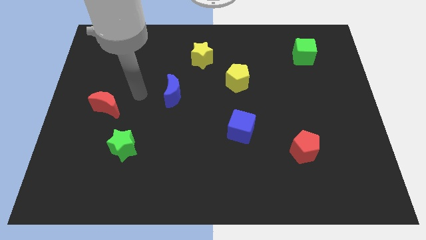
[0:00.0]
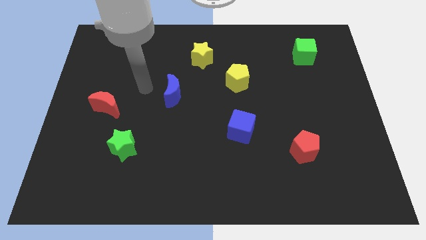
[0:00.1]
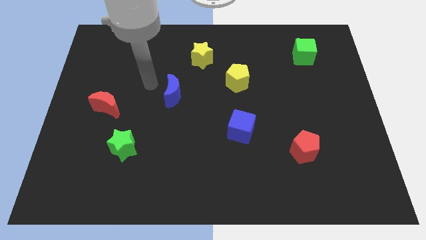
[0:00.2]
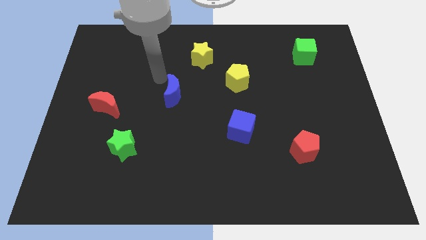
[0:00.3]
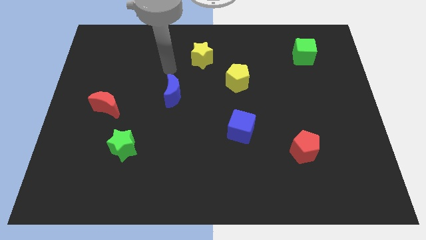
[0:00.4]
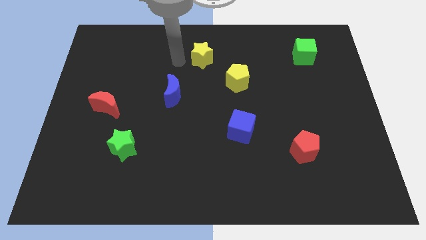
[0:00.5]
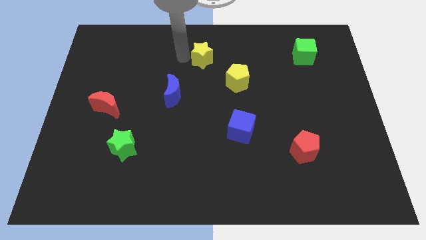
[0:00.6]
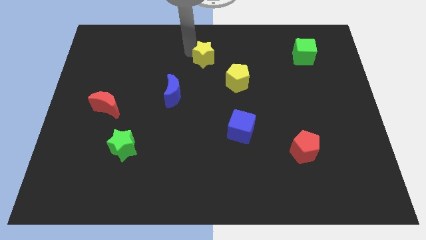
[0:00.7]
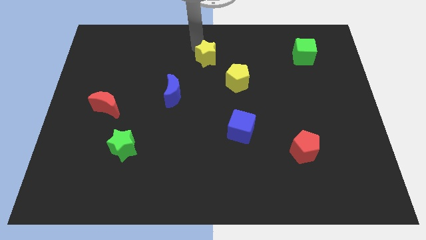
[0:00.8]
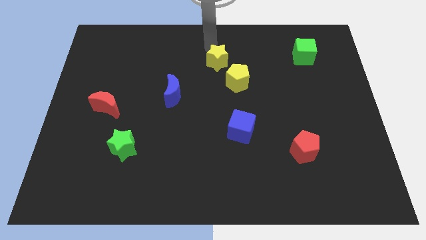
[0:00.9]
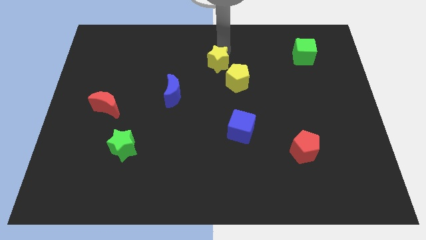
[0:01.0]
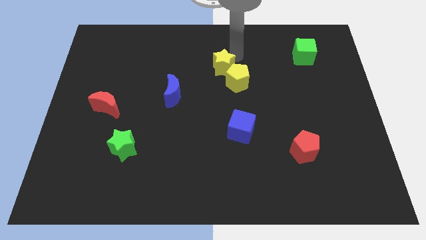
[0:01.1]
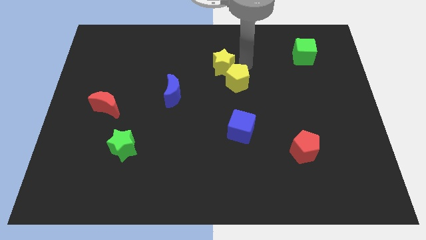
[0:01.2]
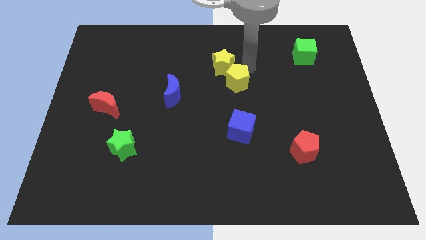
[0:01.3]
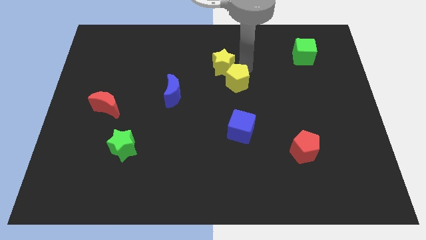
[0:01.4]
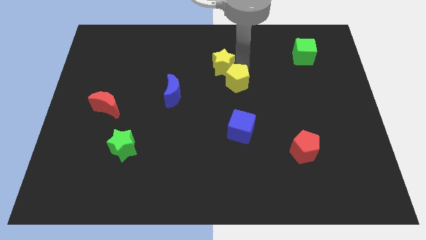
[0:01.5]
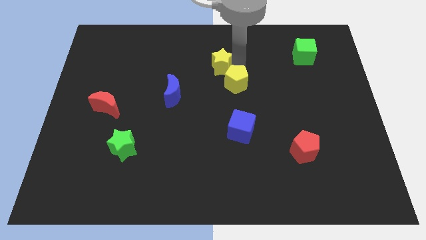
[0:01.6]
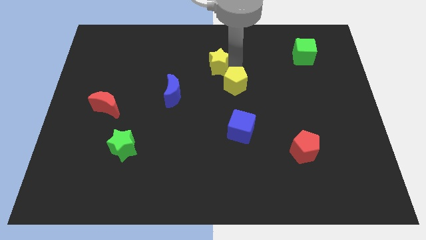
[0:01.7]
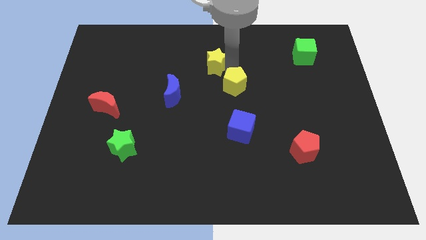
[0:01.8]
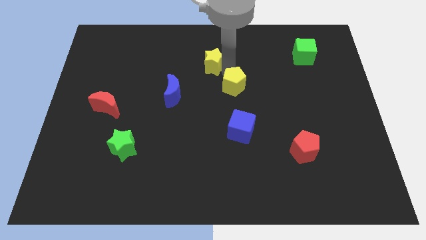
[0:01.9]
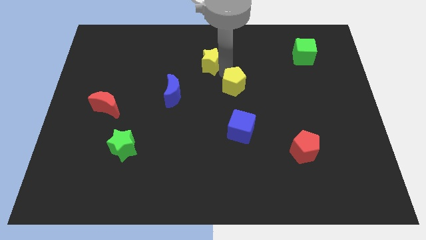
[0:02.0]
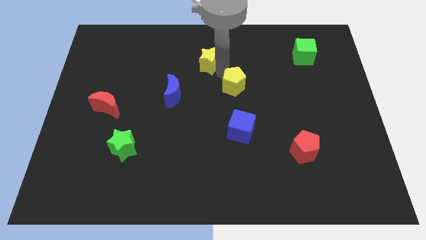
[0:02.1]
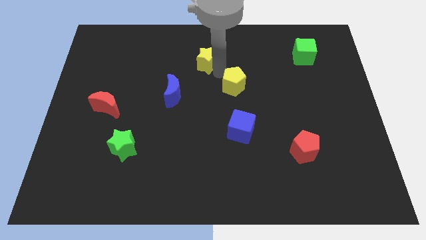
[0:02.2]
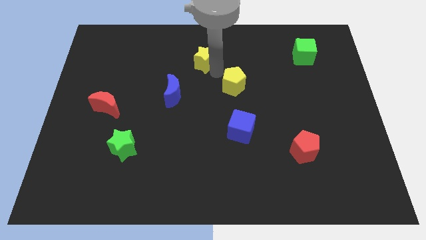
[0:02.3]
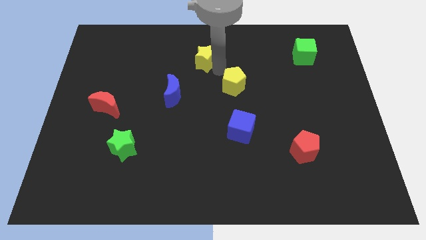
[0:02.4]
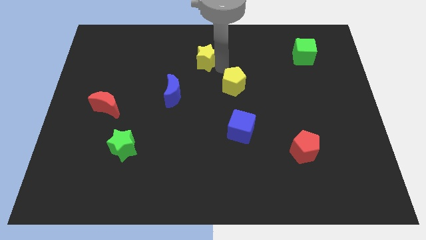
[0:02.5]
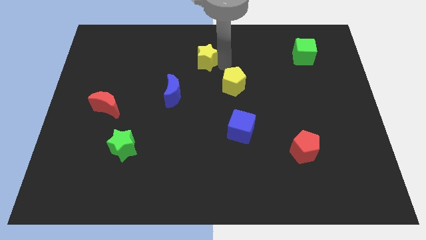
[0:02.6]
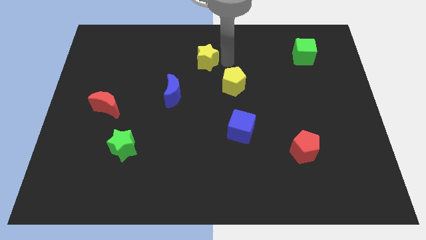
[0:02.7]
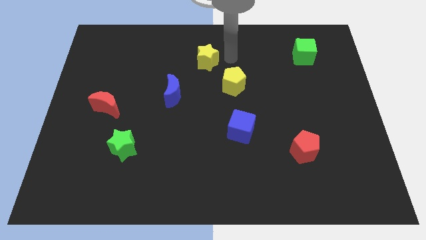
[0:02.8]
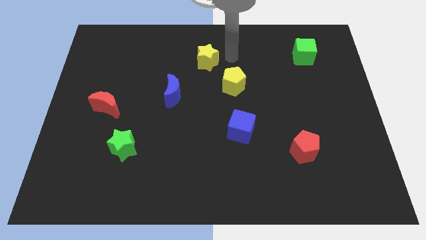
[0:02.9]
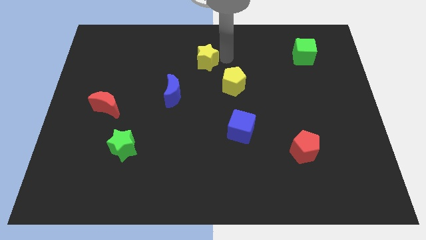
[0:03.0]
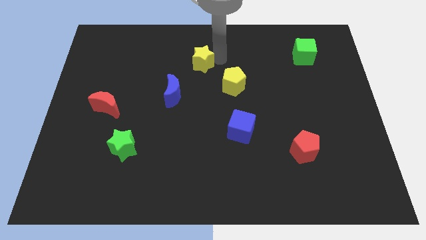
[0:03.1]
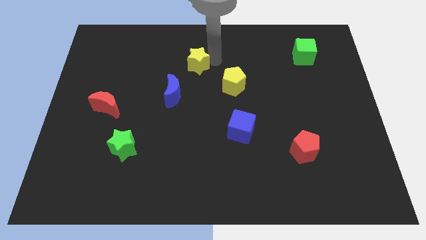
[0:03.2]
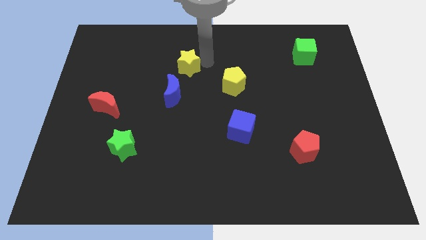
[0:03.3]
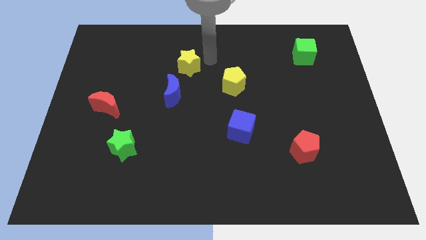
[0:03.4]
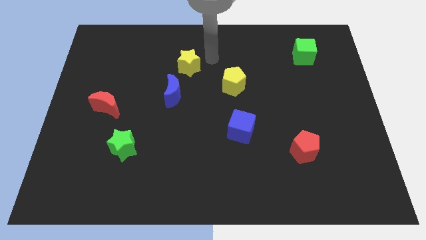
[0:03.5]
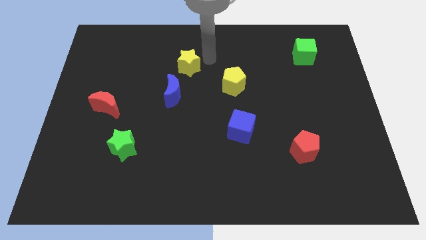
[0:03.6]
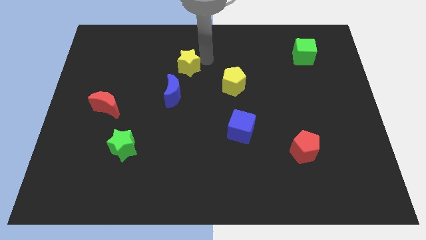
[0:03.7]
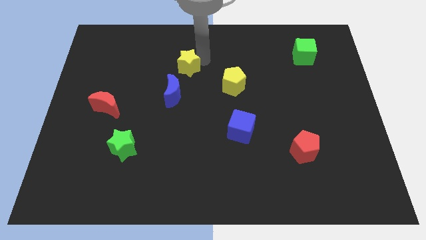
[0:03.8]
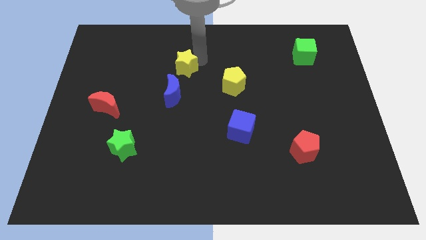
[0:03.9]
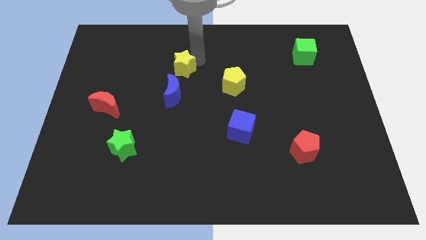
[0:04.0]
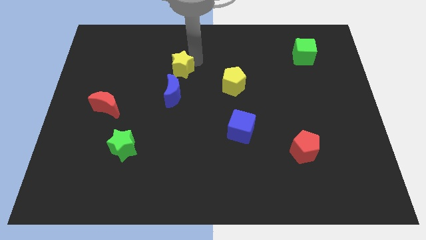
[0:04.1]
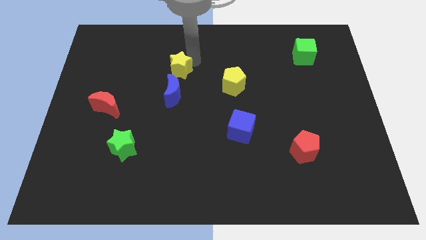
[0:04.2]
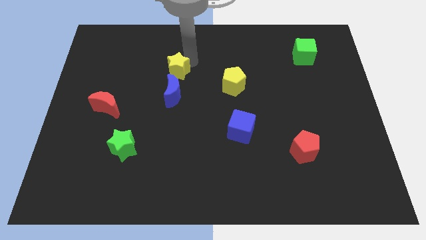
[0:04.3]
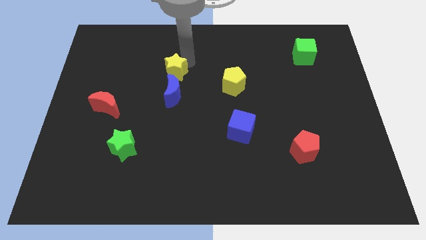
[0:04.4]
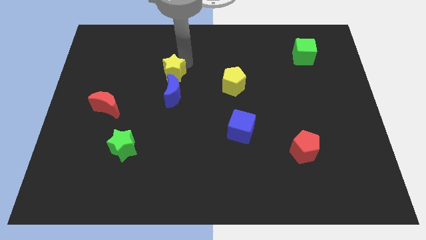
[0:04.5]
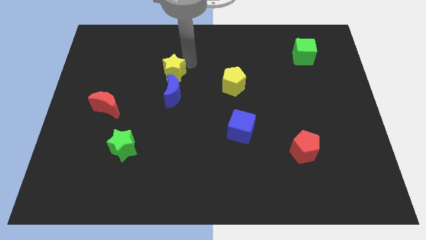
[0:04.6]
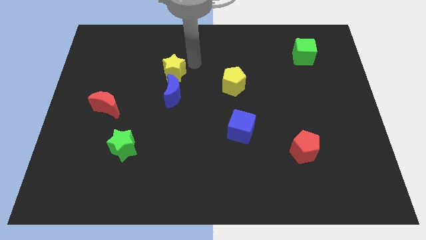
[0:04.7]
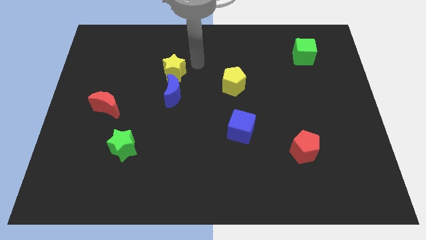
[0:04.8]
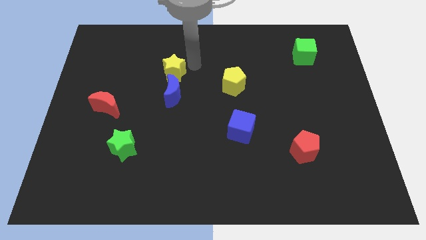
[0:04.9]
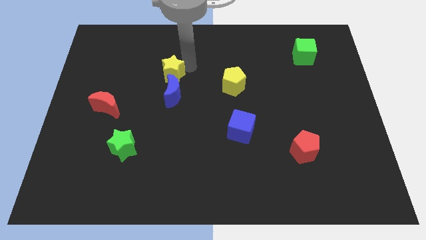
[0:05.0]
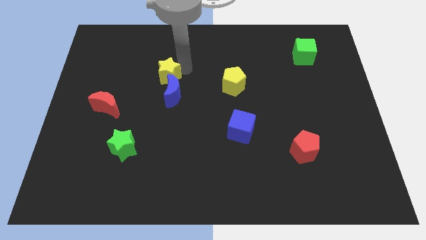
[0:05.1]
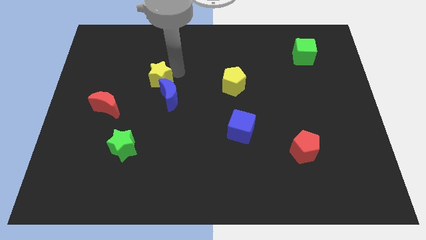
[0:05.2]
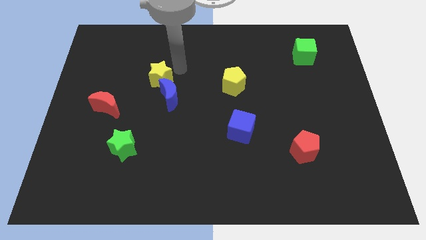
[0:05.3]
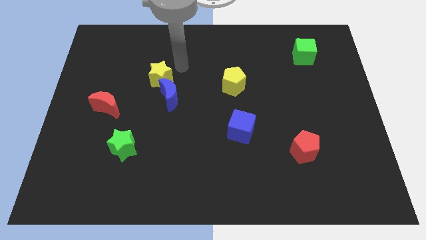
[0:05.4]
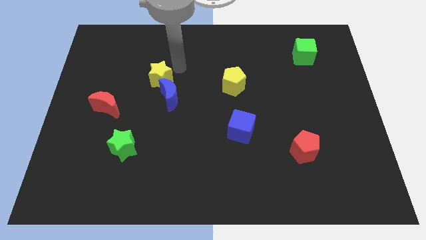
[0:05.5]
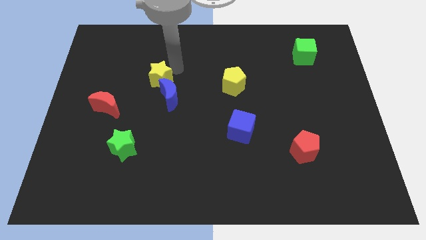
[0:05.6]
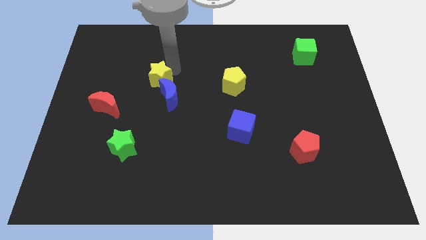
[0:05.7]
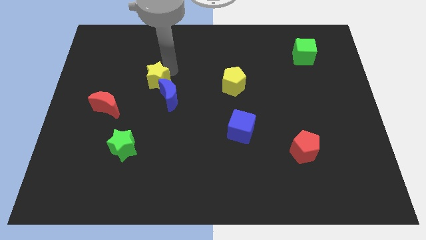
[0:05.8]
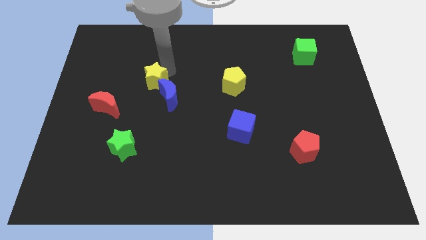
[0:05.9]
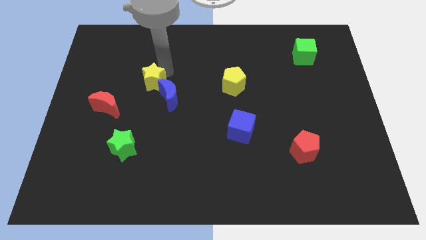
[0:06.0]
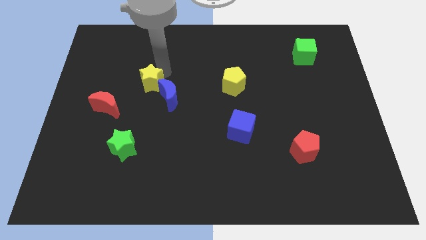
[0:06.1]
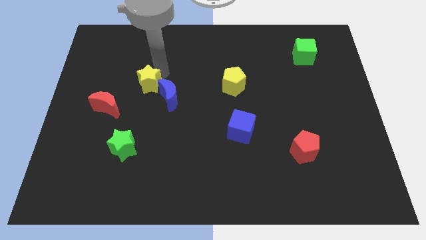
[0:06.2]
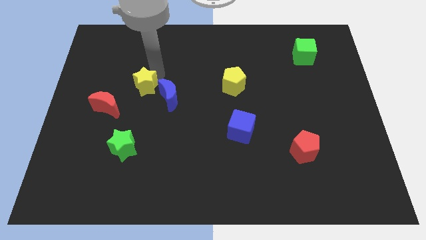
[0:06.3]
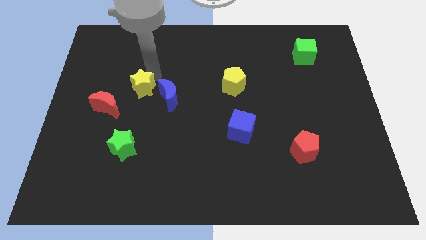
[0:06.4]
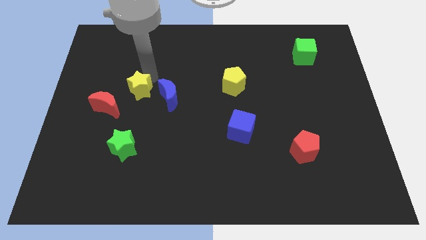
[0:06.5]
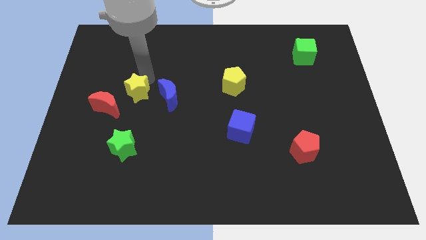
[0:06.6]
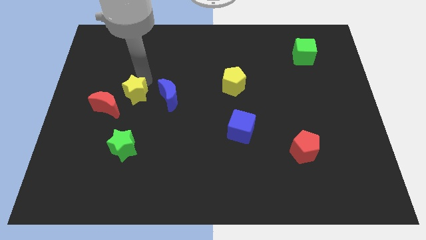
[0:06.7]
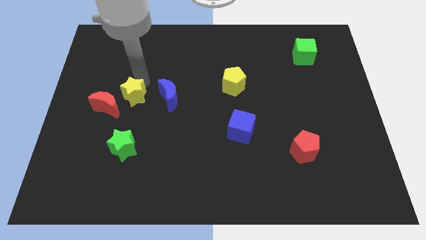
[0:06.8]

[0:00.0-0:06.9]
push the yellow star downwards and left diagonally

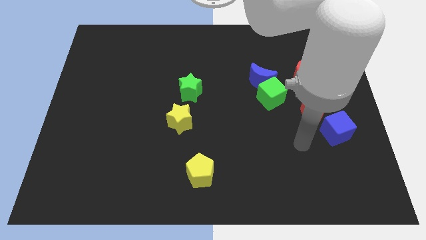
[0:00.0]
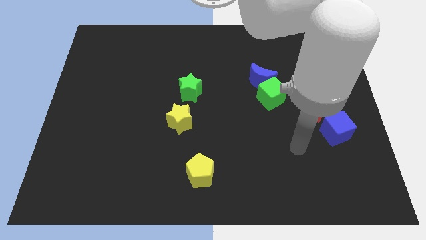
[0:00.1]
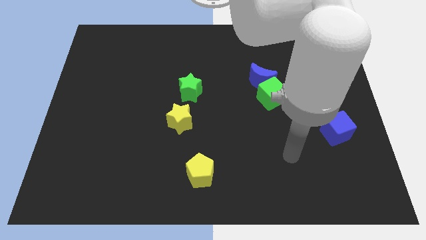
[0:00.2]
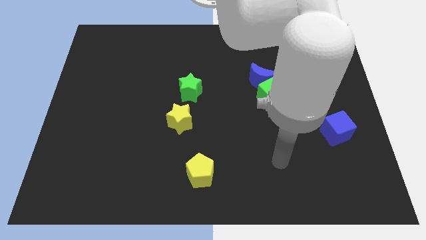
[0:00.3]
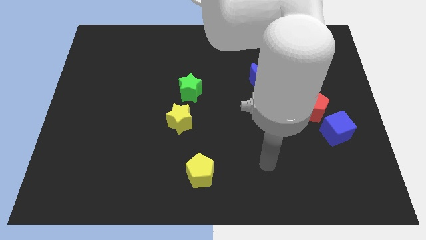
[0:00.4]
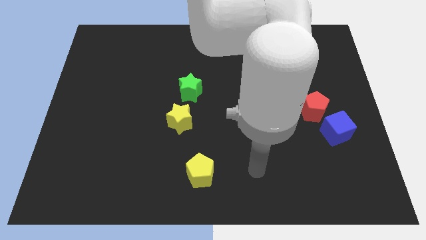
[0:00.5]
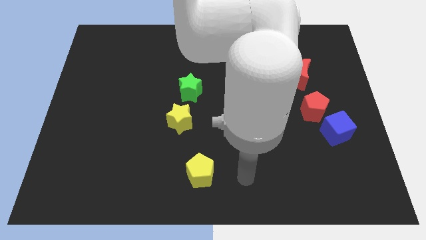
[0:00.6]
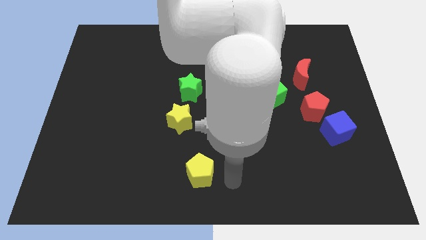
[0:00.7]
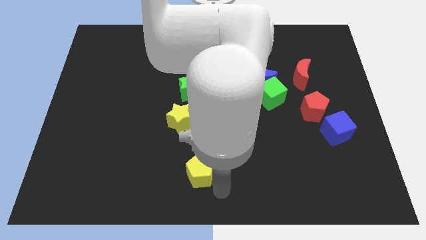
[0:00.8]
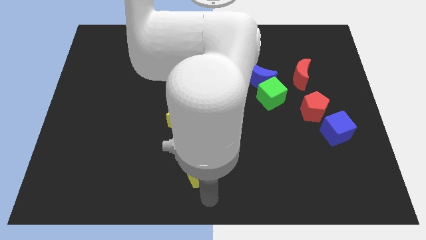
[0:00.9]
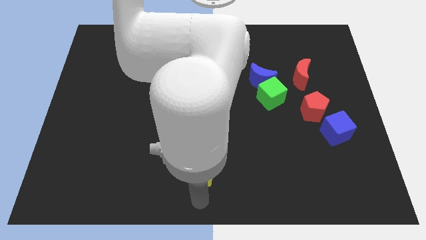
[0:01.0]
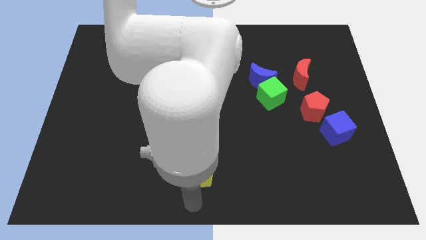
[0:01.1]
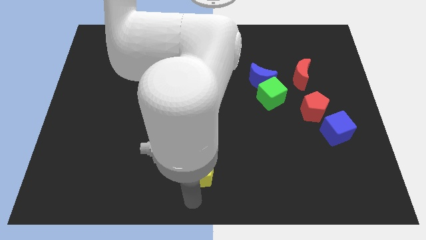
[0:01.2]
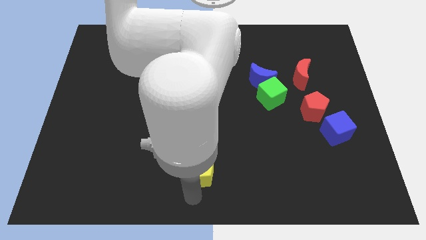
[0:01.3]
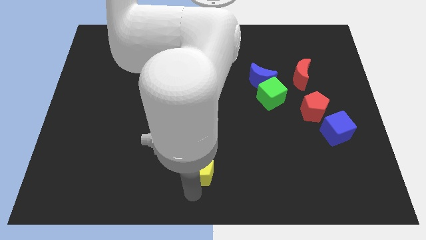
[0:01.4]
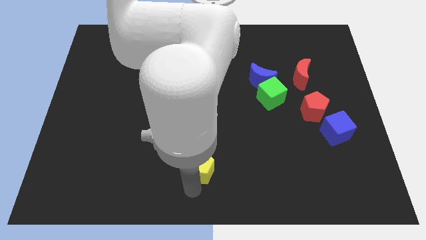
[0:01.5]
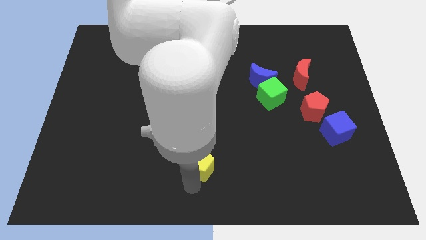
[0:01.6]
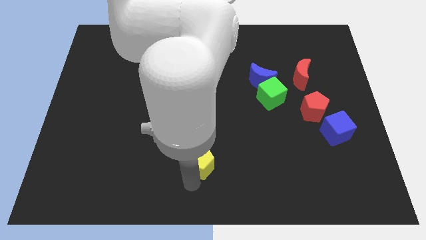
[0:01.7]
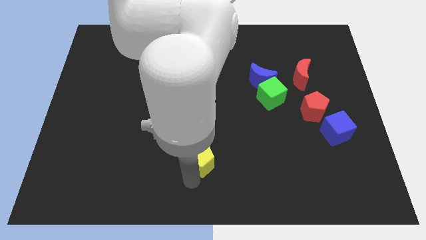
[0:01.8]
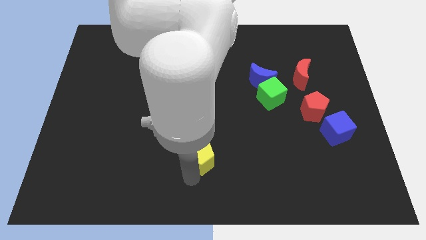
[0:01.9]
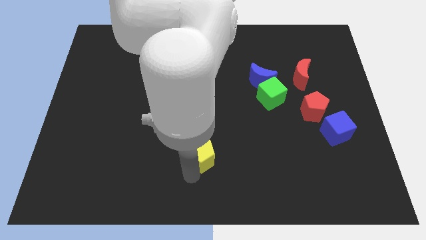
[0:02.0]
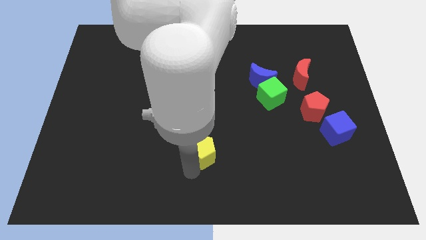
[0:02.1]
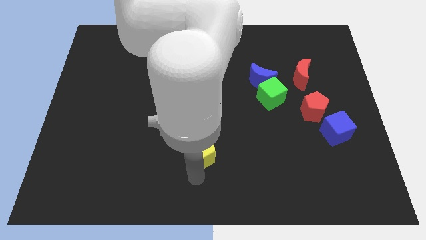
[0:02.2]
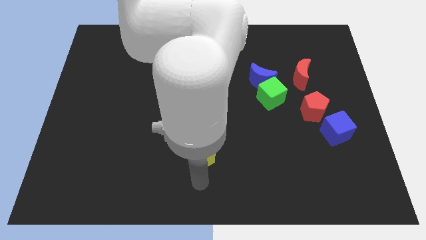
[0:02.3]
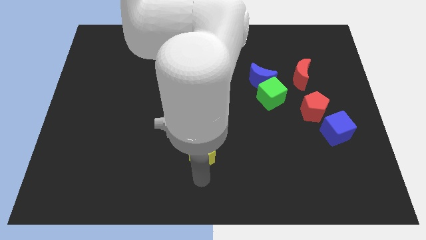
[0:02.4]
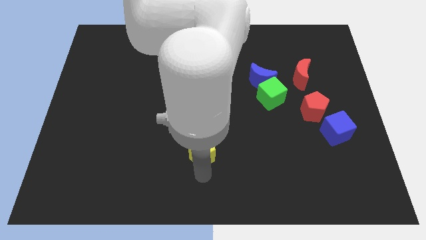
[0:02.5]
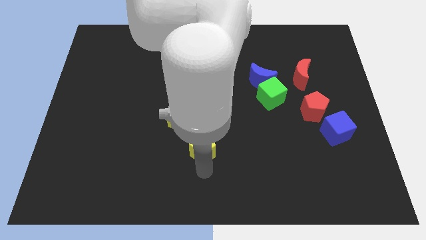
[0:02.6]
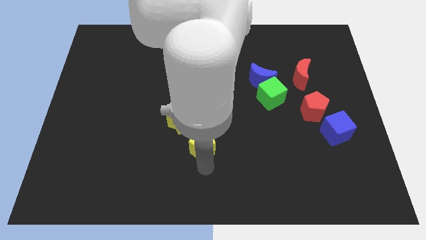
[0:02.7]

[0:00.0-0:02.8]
move the yellow pentagon somewhat upwards
